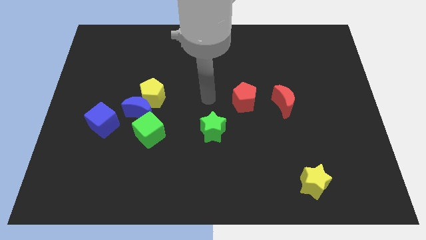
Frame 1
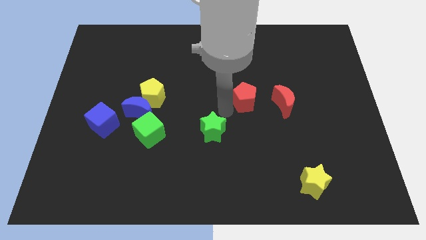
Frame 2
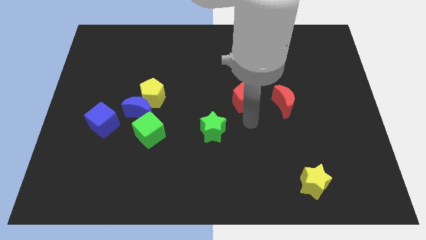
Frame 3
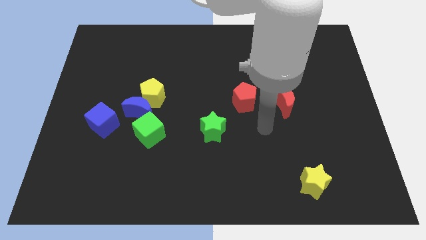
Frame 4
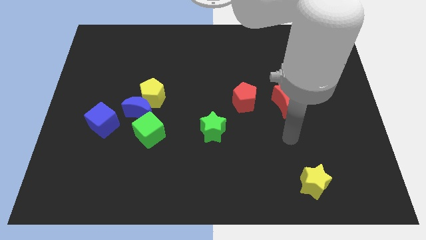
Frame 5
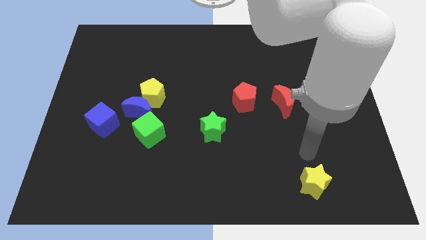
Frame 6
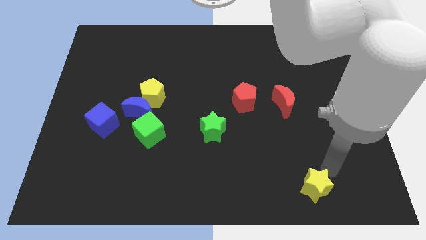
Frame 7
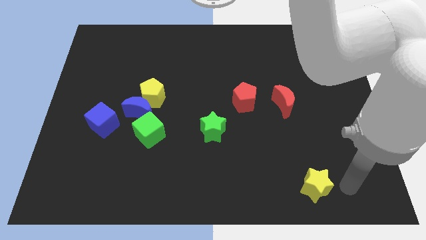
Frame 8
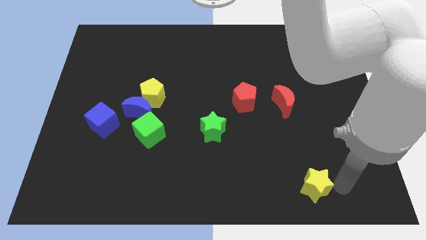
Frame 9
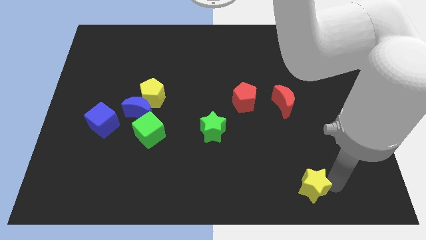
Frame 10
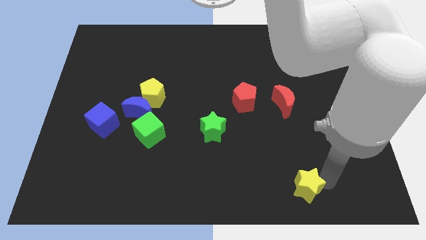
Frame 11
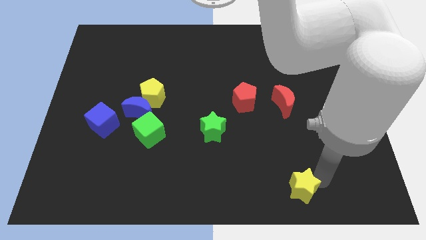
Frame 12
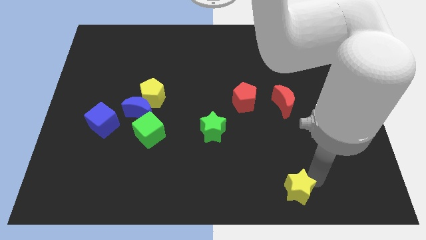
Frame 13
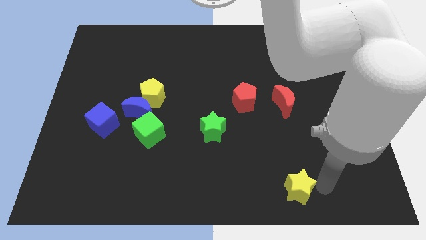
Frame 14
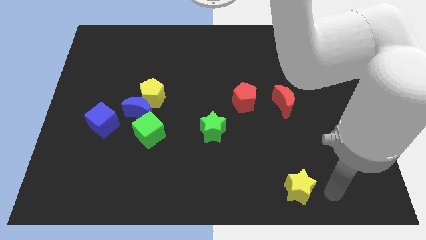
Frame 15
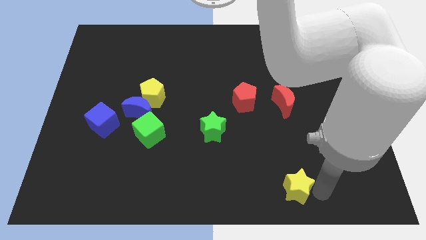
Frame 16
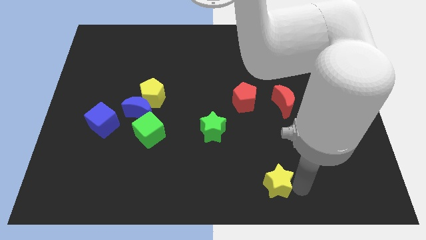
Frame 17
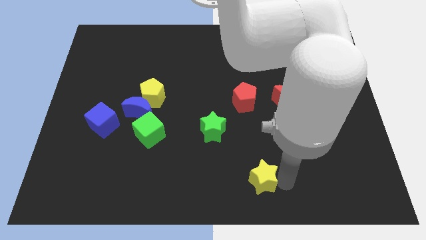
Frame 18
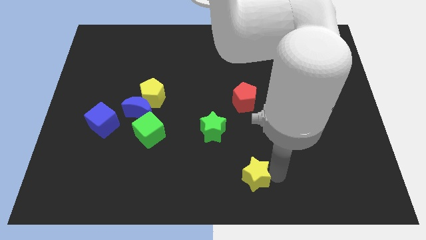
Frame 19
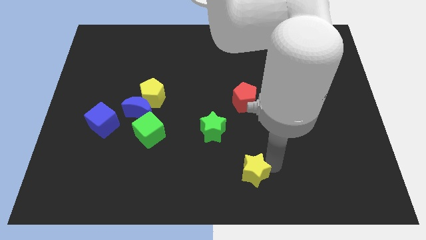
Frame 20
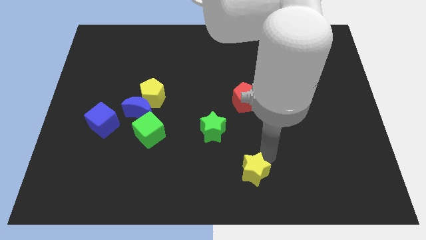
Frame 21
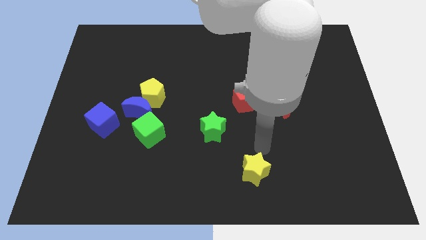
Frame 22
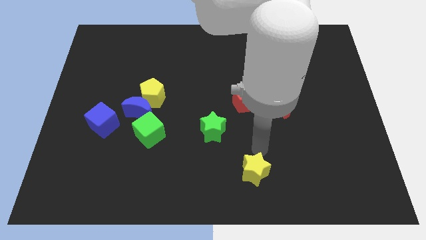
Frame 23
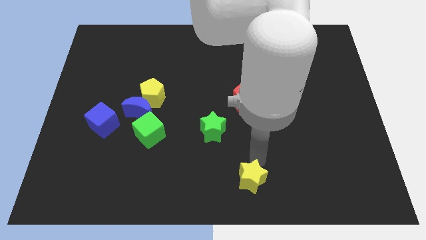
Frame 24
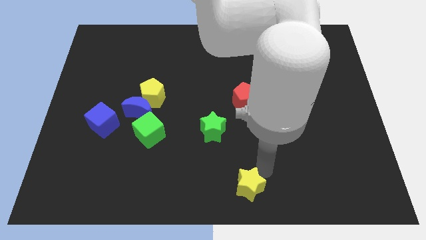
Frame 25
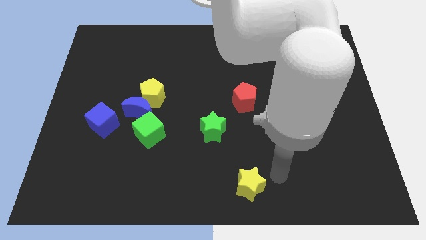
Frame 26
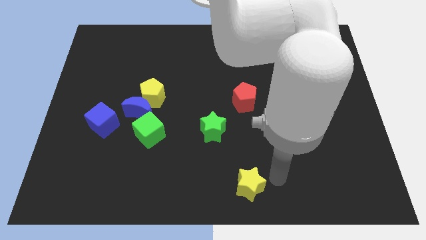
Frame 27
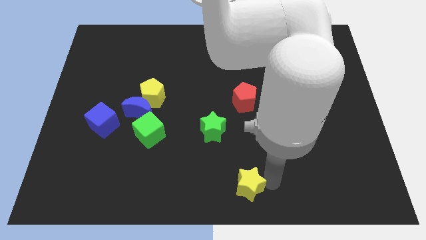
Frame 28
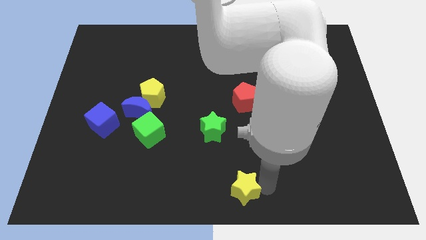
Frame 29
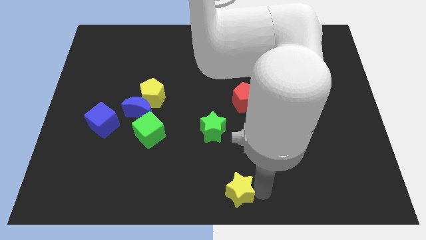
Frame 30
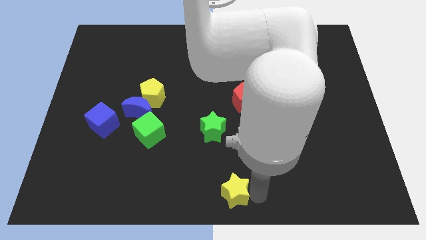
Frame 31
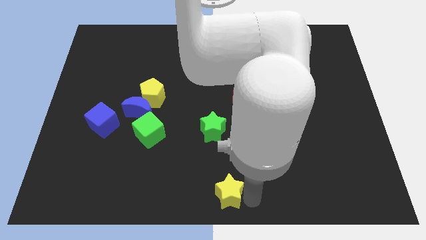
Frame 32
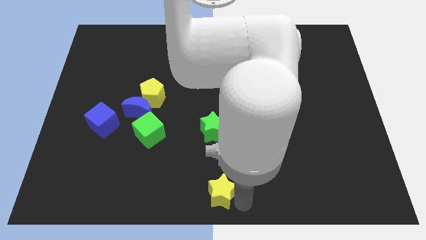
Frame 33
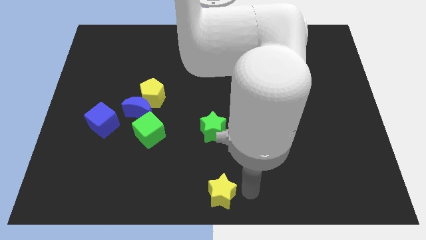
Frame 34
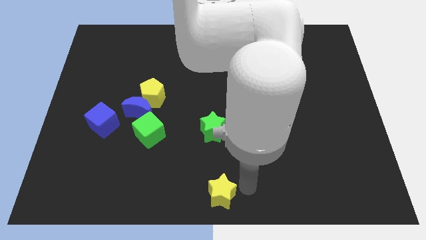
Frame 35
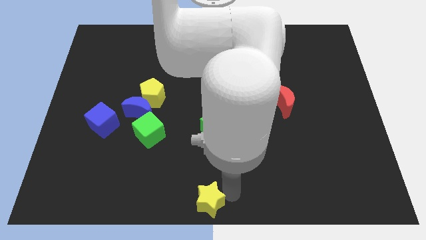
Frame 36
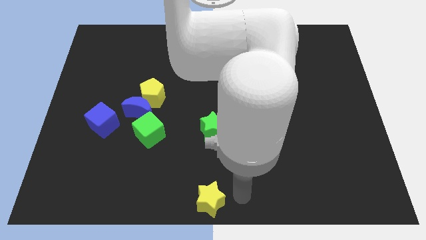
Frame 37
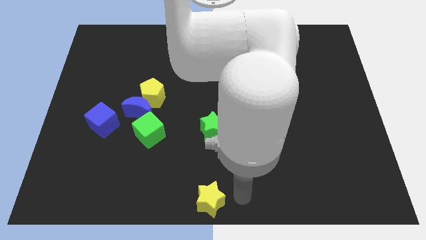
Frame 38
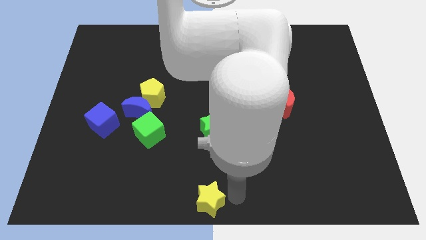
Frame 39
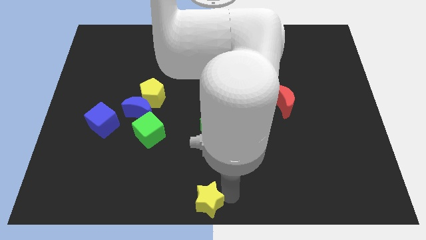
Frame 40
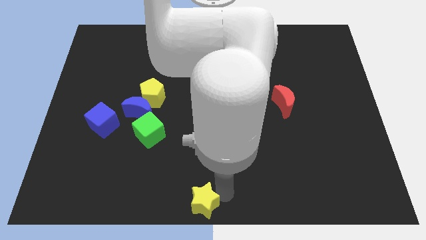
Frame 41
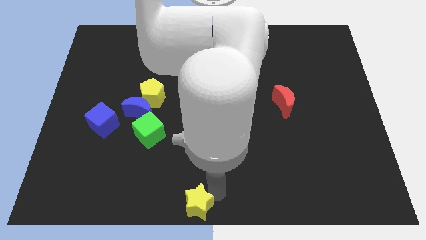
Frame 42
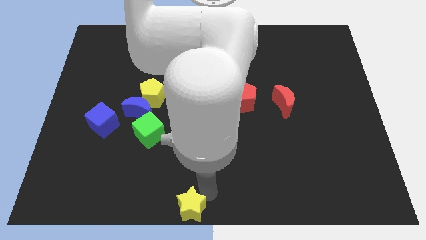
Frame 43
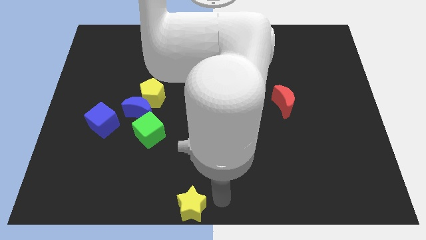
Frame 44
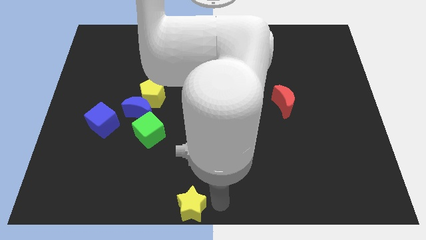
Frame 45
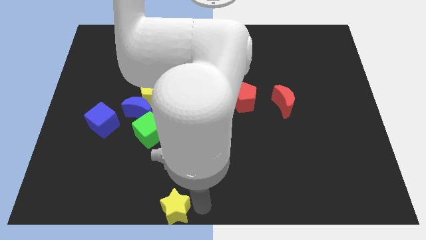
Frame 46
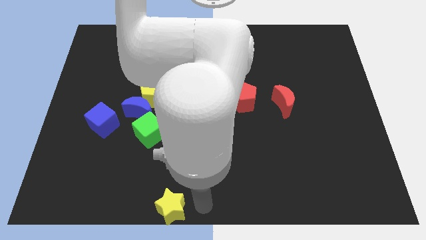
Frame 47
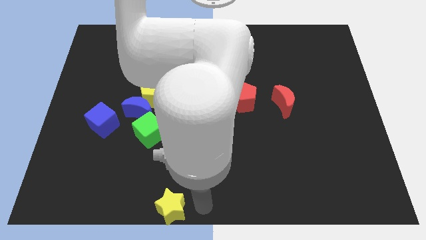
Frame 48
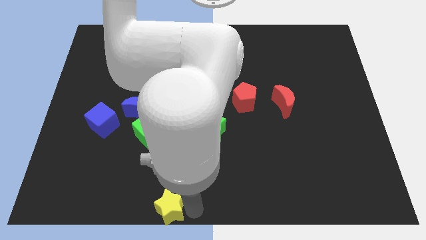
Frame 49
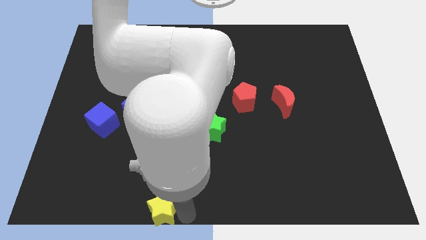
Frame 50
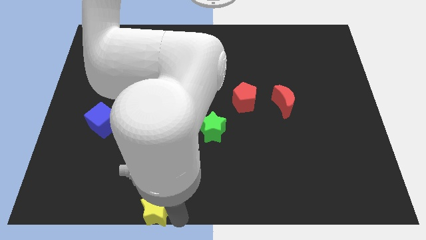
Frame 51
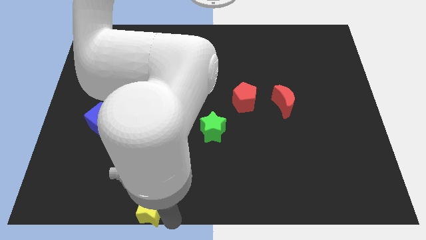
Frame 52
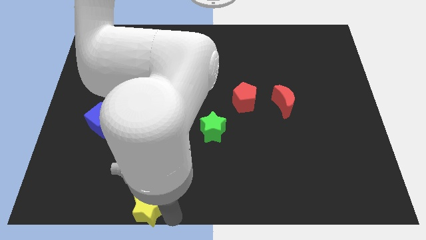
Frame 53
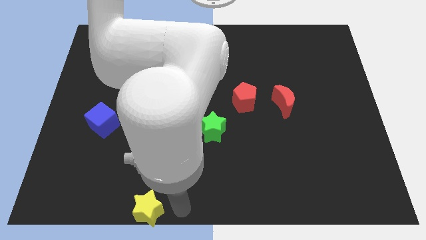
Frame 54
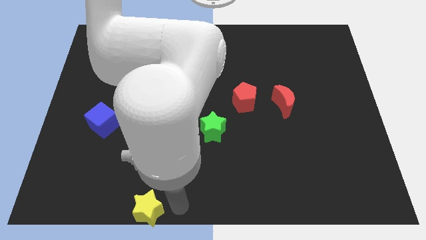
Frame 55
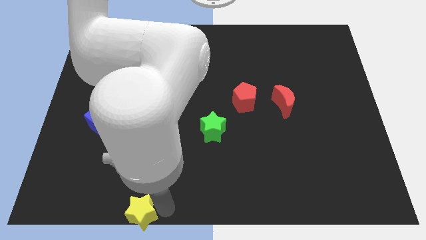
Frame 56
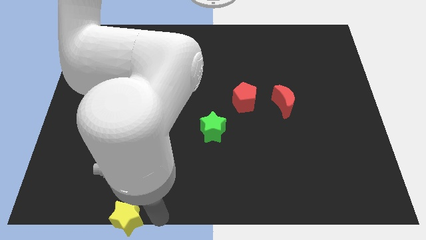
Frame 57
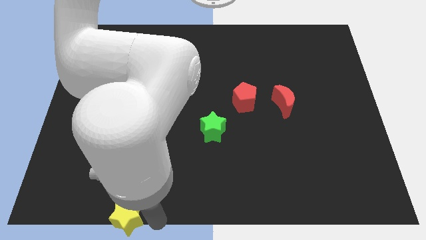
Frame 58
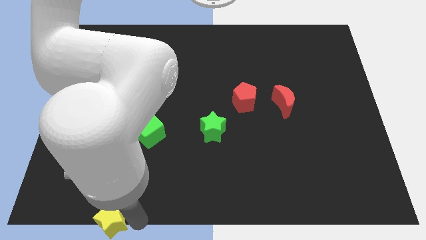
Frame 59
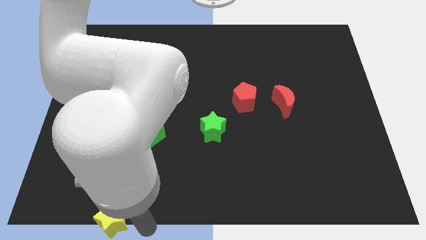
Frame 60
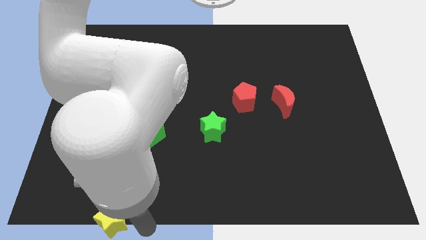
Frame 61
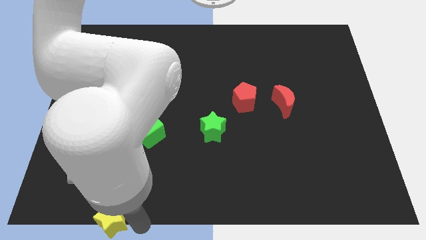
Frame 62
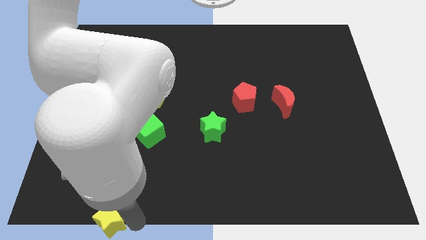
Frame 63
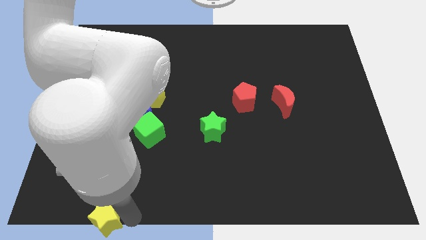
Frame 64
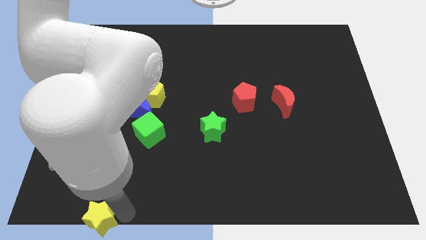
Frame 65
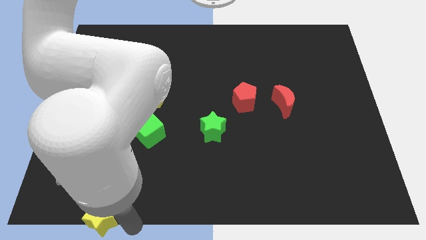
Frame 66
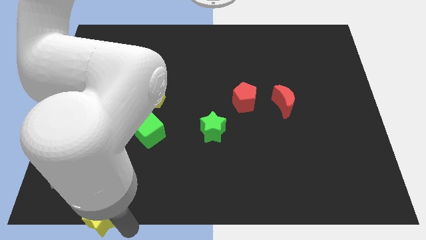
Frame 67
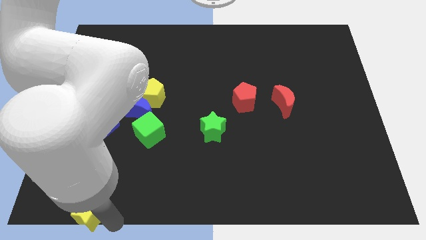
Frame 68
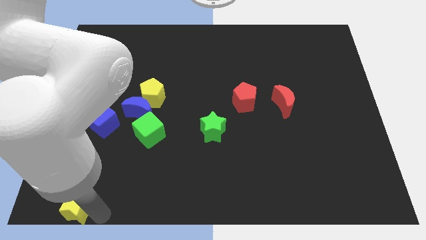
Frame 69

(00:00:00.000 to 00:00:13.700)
put the yellow star to the bottom left of the board
